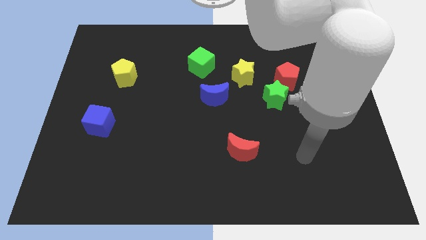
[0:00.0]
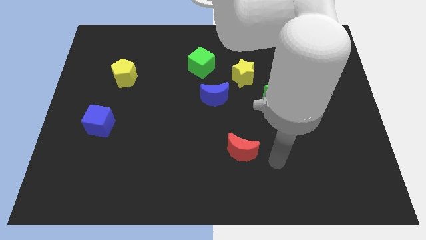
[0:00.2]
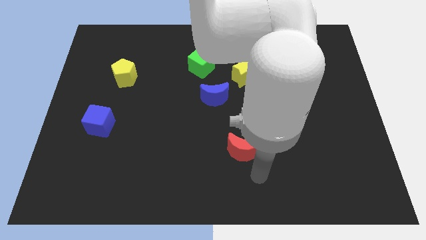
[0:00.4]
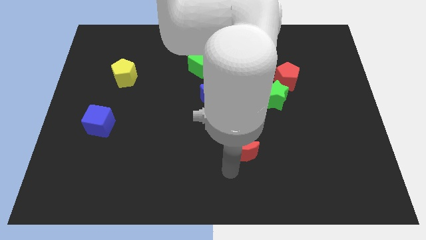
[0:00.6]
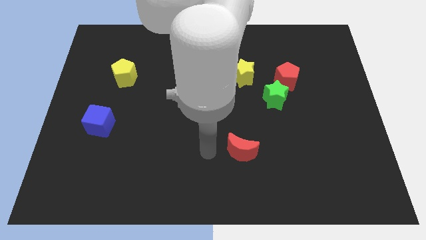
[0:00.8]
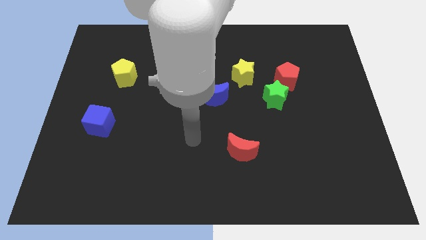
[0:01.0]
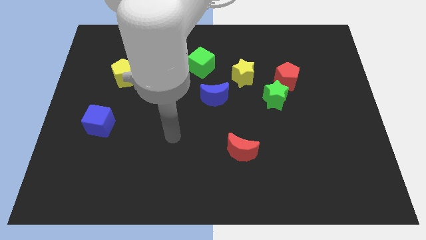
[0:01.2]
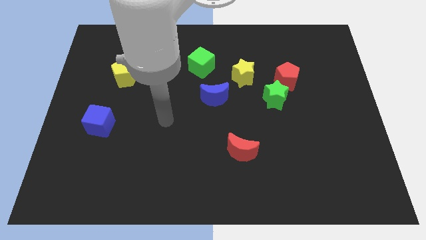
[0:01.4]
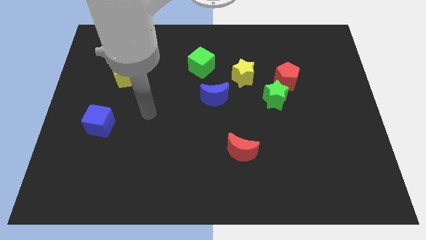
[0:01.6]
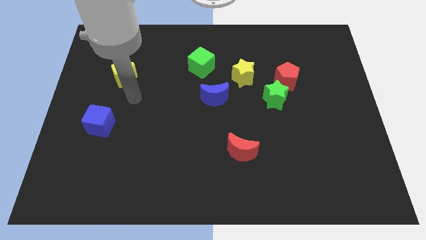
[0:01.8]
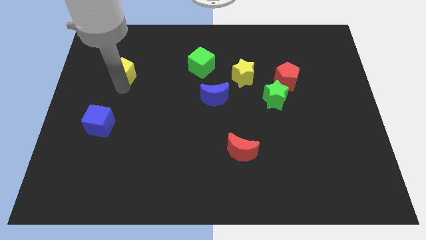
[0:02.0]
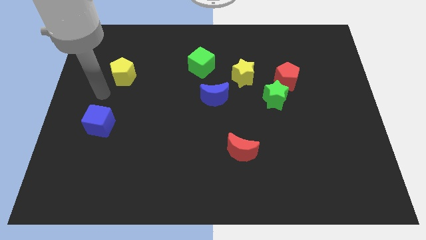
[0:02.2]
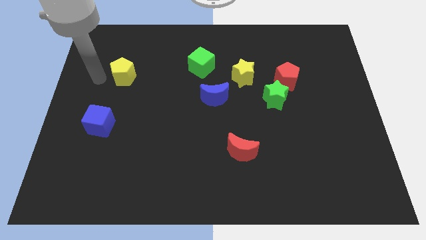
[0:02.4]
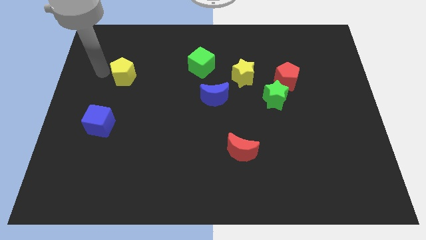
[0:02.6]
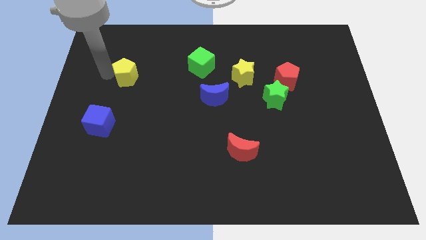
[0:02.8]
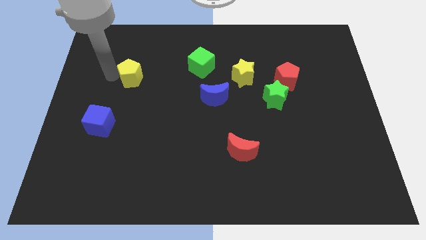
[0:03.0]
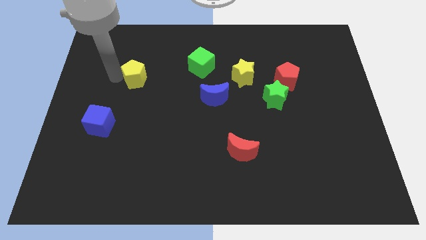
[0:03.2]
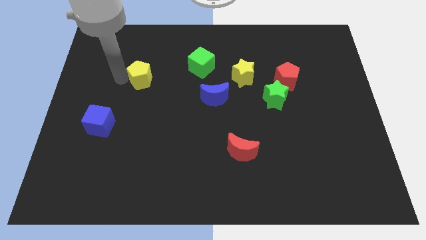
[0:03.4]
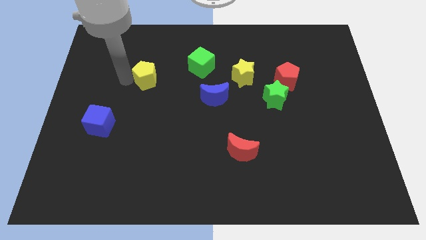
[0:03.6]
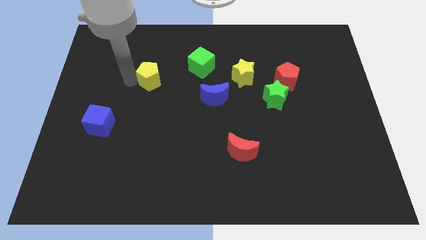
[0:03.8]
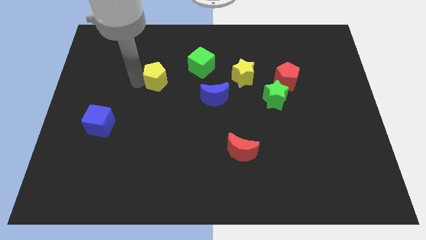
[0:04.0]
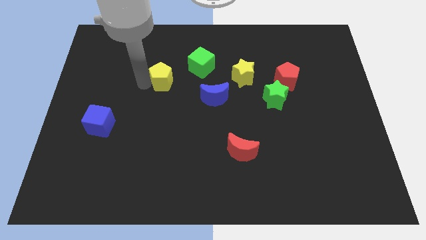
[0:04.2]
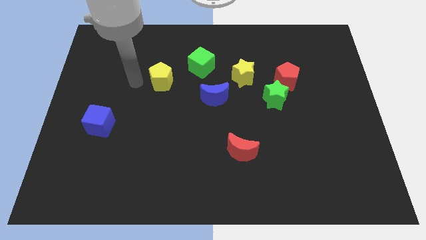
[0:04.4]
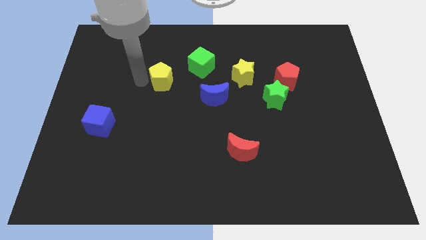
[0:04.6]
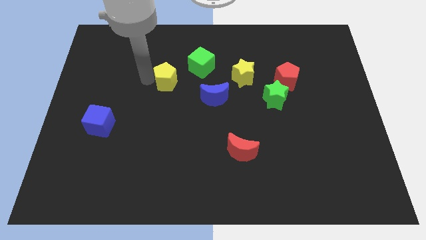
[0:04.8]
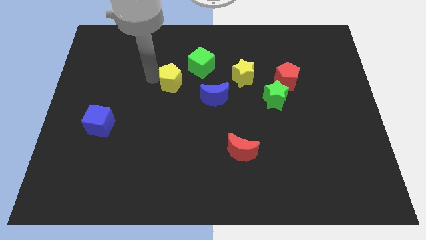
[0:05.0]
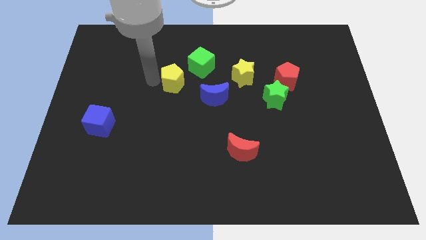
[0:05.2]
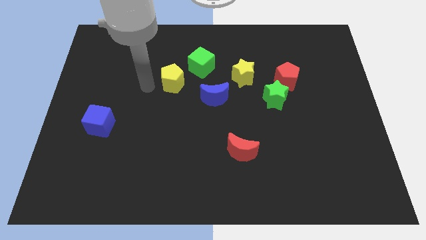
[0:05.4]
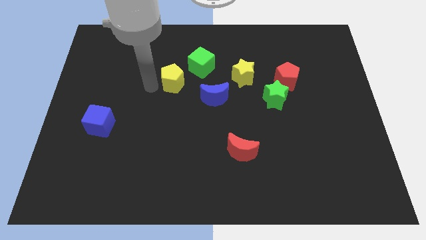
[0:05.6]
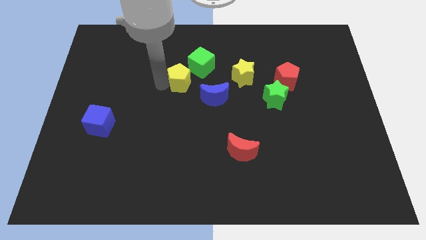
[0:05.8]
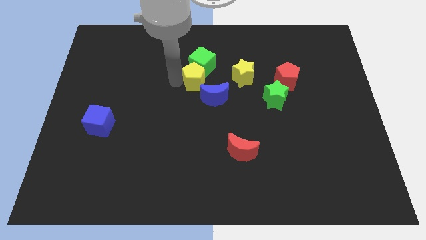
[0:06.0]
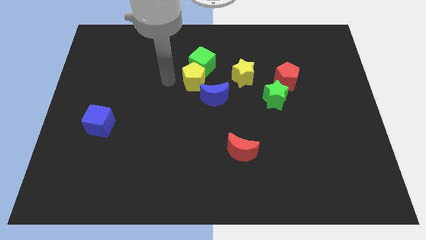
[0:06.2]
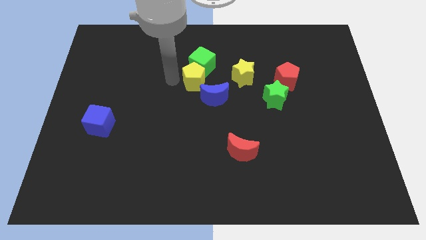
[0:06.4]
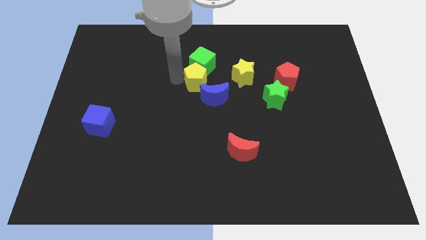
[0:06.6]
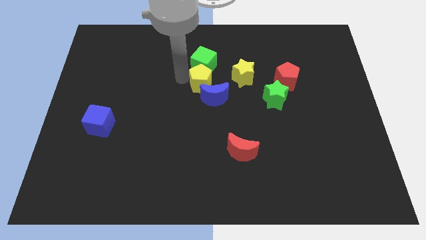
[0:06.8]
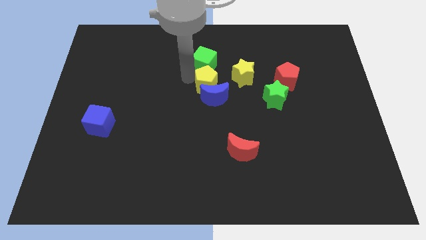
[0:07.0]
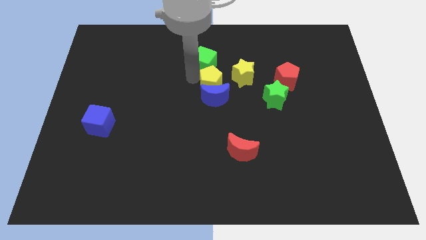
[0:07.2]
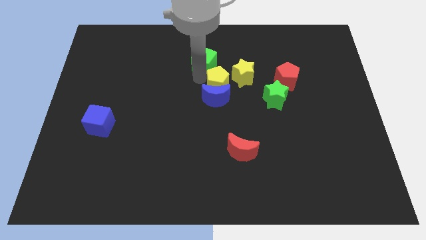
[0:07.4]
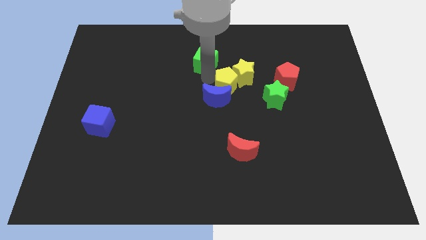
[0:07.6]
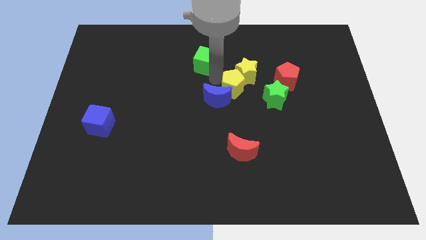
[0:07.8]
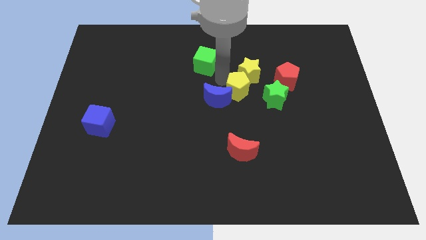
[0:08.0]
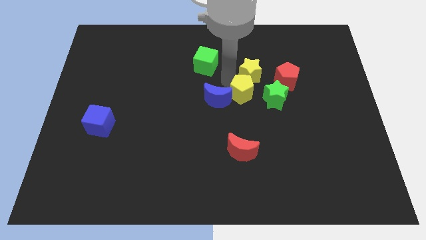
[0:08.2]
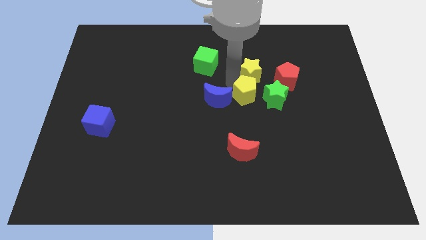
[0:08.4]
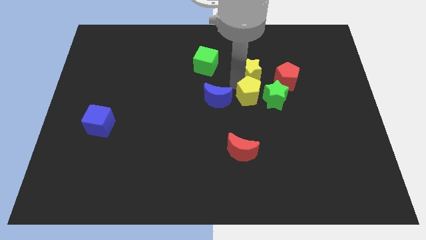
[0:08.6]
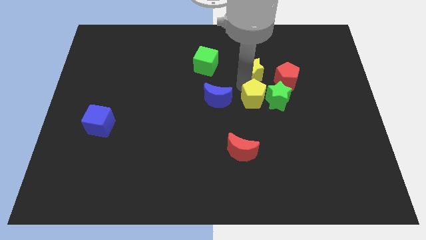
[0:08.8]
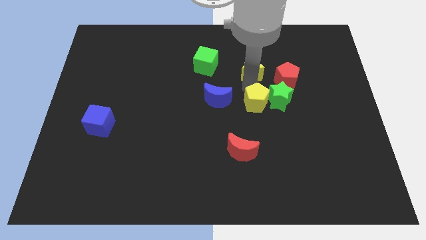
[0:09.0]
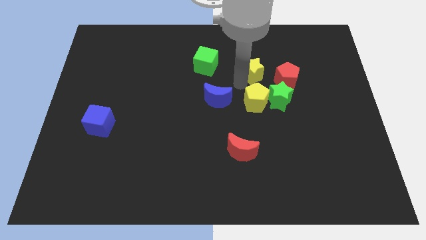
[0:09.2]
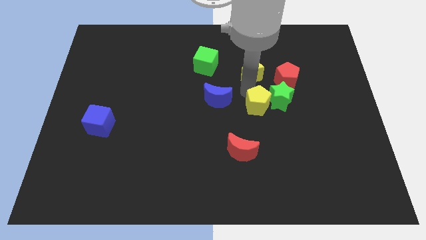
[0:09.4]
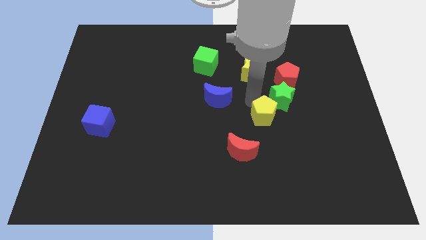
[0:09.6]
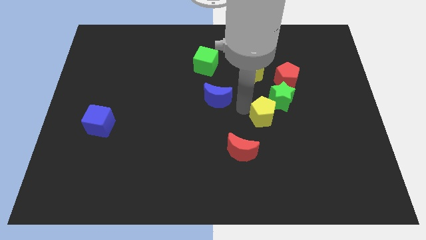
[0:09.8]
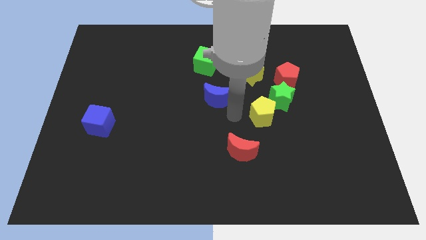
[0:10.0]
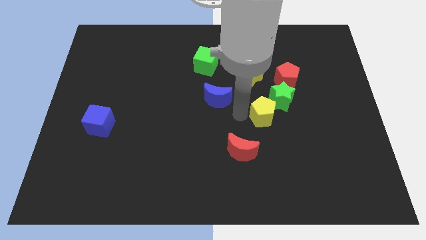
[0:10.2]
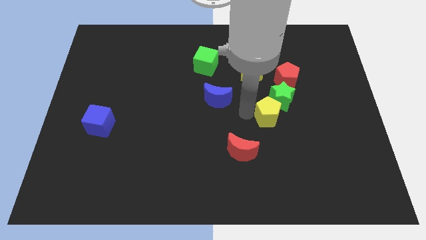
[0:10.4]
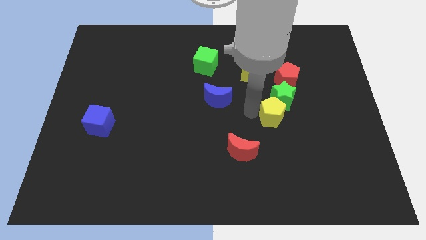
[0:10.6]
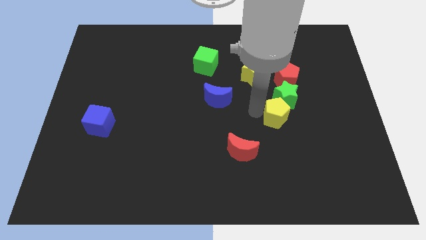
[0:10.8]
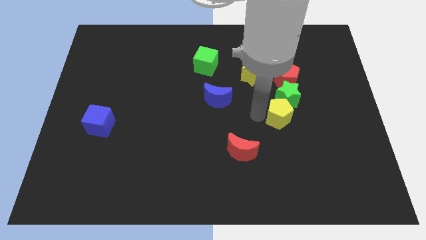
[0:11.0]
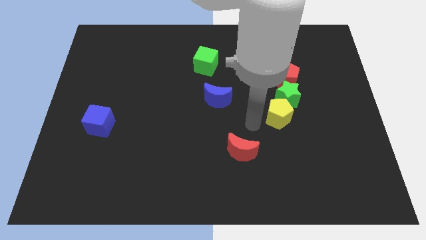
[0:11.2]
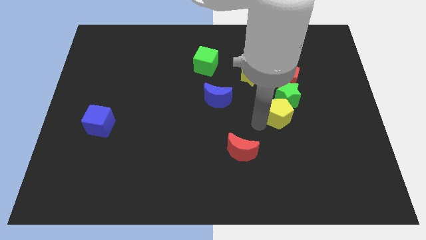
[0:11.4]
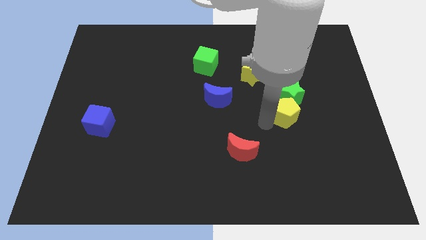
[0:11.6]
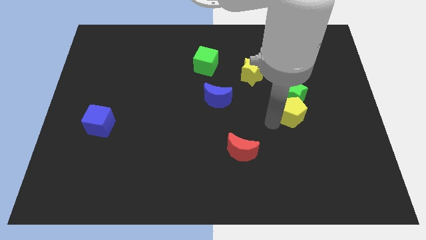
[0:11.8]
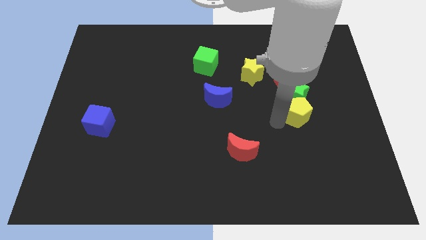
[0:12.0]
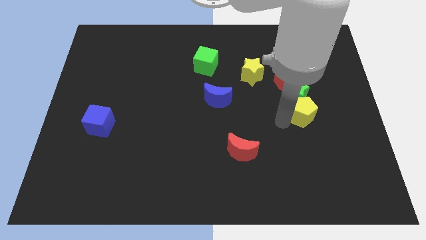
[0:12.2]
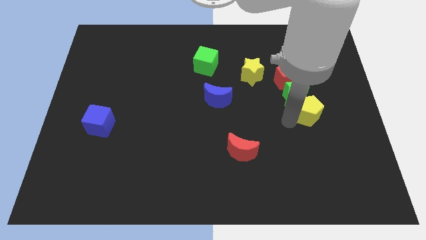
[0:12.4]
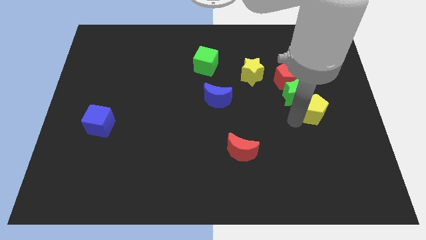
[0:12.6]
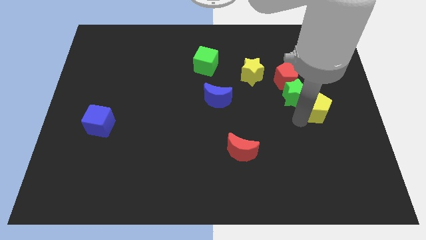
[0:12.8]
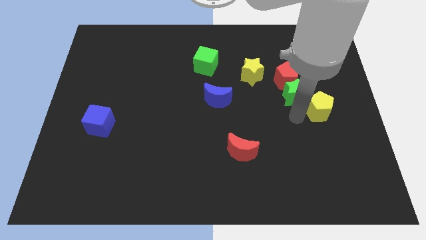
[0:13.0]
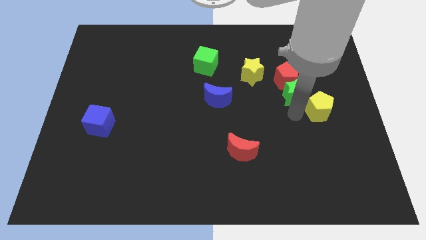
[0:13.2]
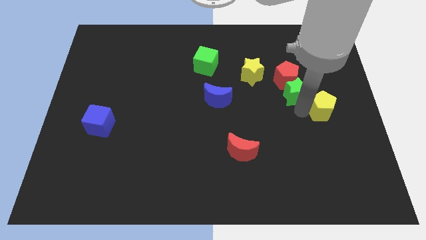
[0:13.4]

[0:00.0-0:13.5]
move the yellow pentagon to the right side

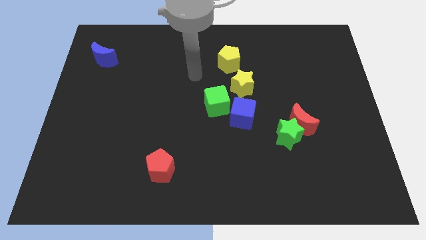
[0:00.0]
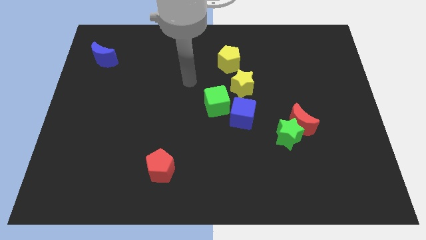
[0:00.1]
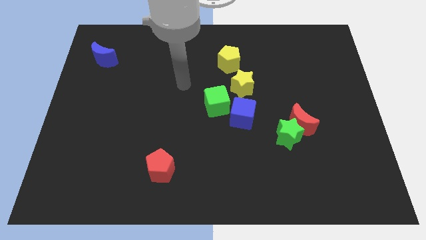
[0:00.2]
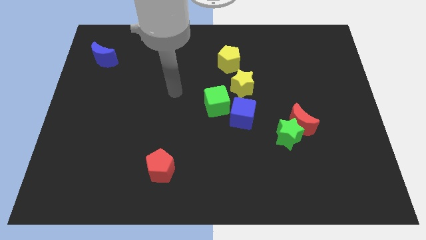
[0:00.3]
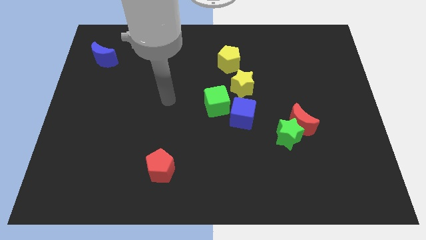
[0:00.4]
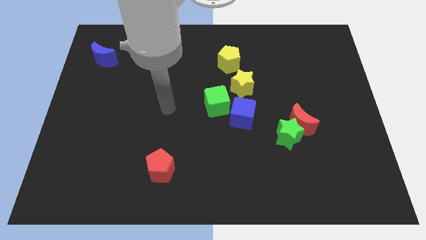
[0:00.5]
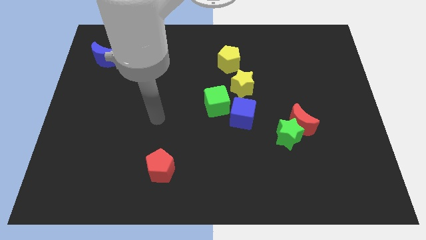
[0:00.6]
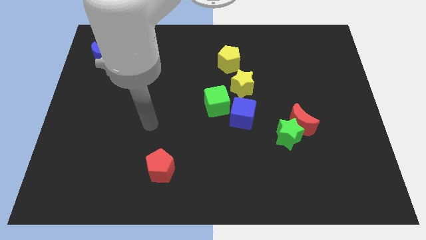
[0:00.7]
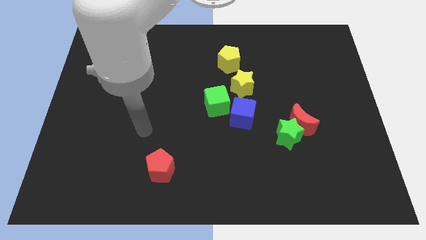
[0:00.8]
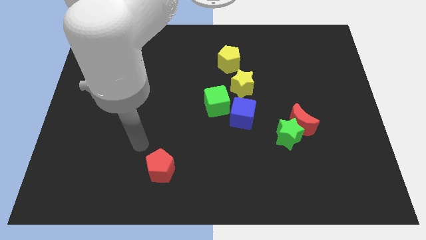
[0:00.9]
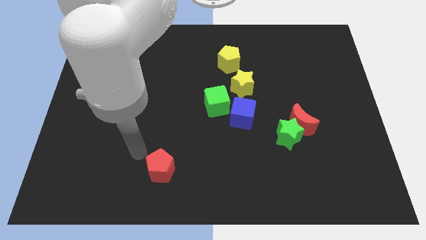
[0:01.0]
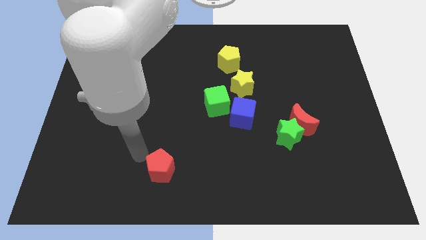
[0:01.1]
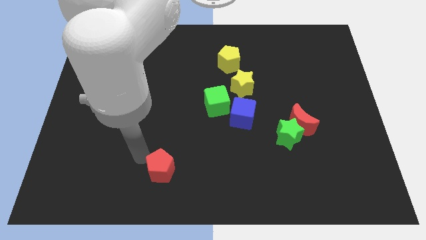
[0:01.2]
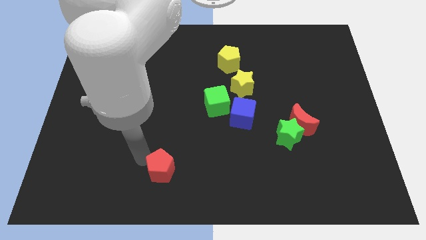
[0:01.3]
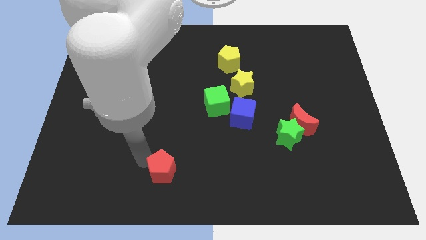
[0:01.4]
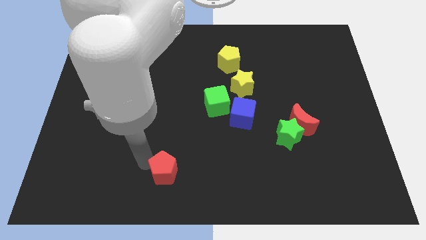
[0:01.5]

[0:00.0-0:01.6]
push the red pentagon to the bottom side
